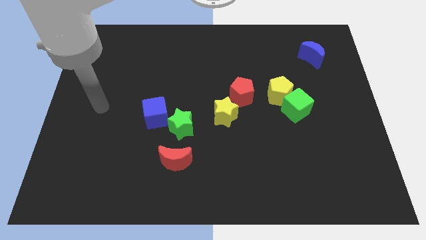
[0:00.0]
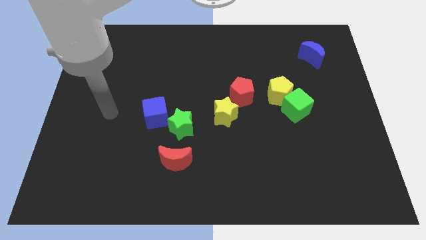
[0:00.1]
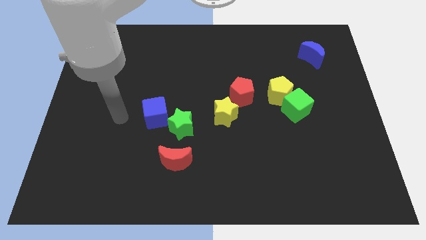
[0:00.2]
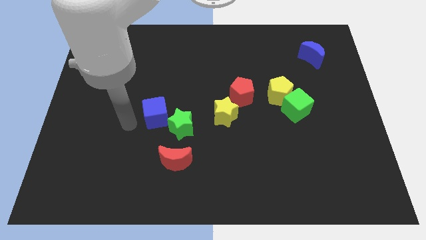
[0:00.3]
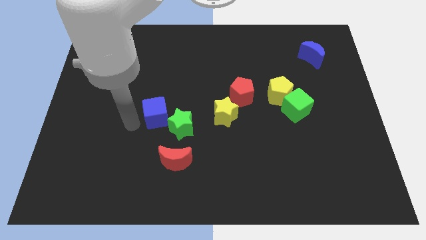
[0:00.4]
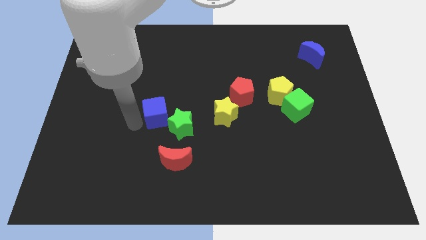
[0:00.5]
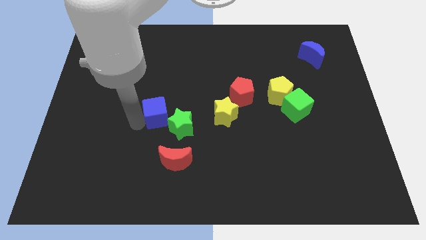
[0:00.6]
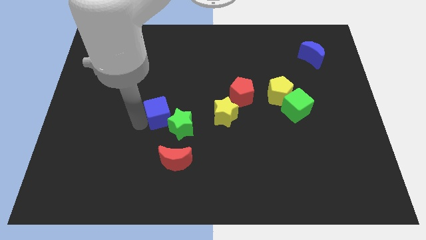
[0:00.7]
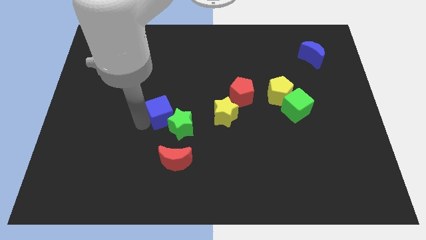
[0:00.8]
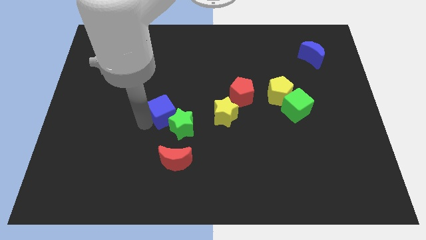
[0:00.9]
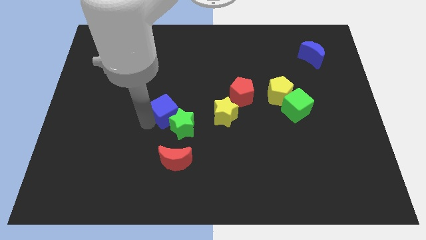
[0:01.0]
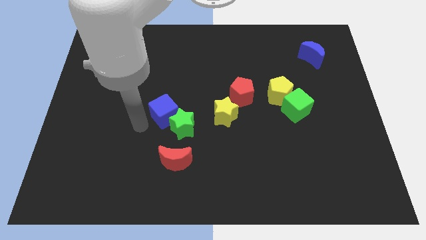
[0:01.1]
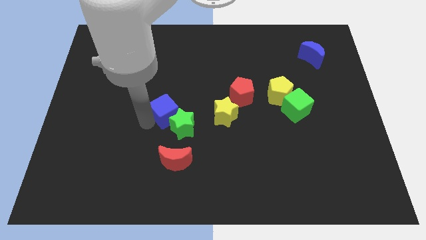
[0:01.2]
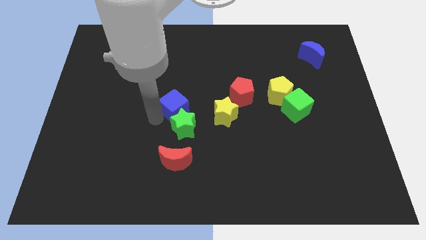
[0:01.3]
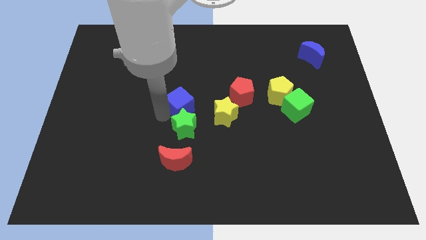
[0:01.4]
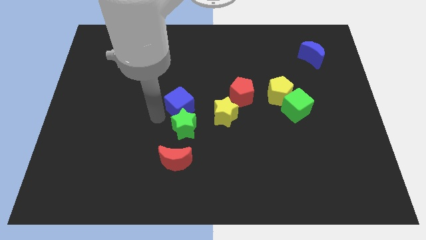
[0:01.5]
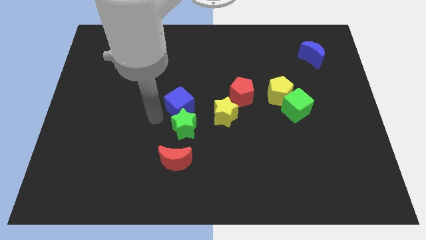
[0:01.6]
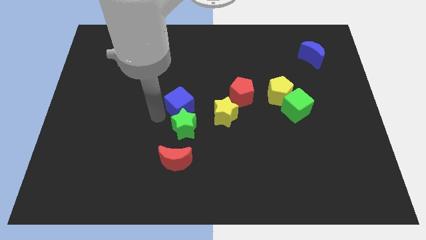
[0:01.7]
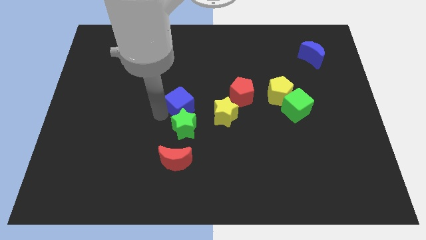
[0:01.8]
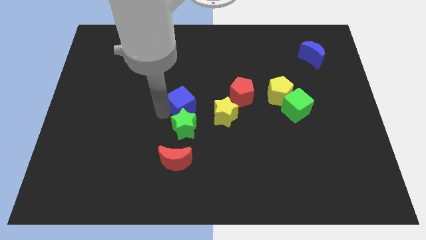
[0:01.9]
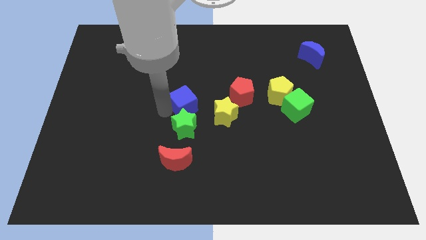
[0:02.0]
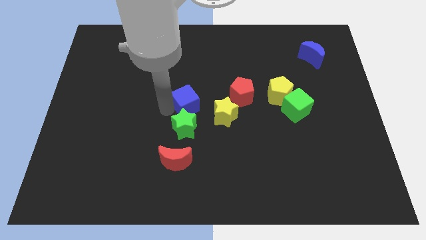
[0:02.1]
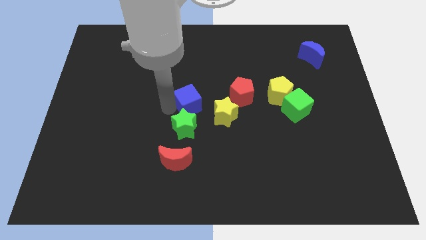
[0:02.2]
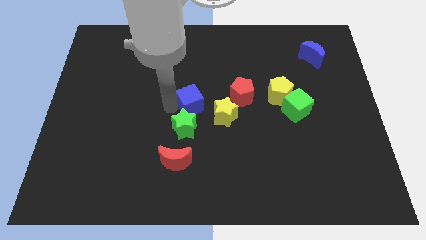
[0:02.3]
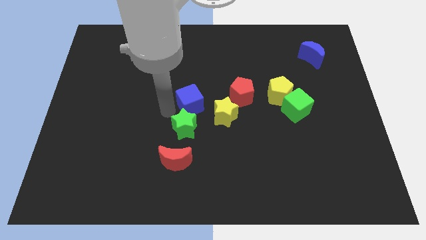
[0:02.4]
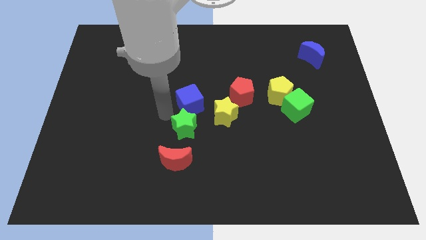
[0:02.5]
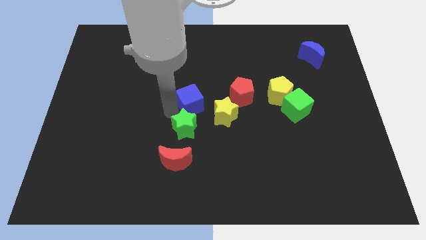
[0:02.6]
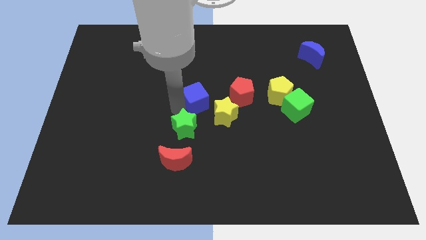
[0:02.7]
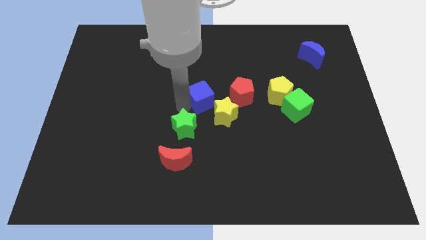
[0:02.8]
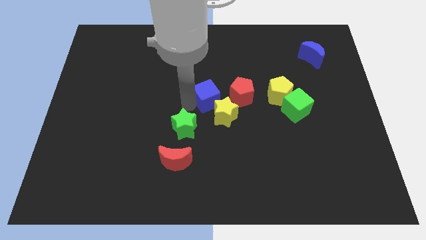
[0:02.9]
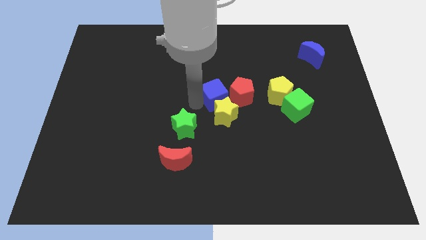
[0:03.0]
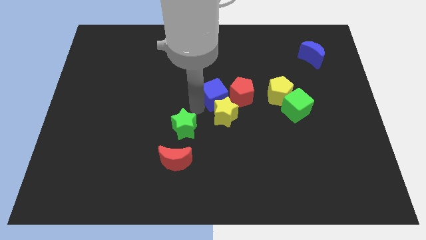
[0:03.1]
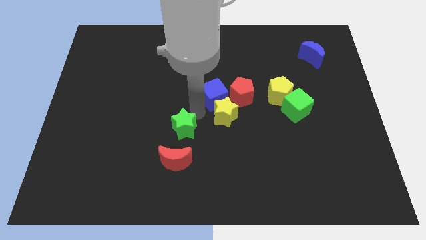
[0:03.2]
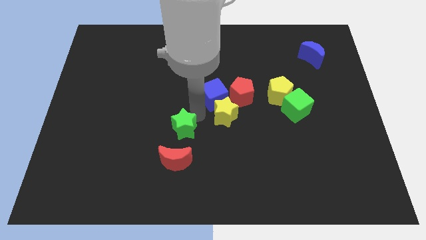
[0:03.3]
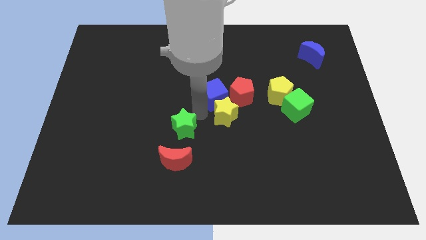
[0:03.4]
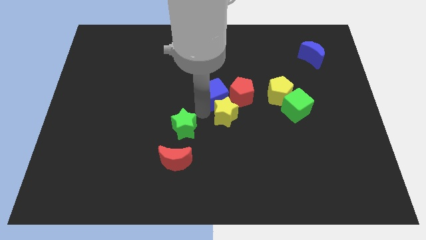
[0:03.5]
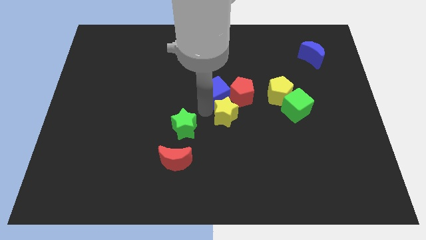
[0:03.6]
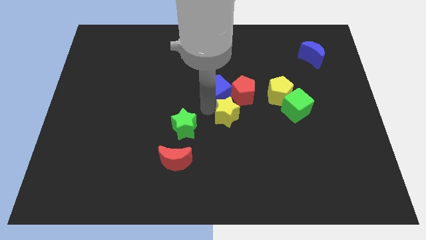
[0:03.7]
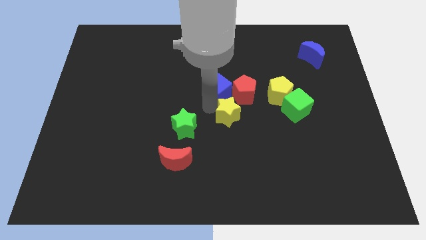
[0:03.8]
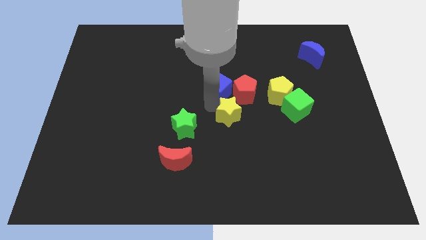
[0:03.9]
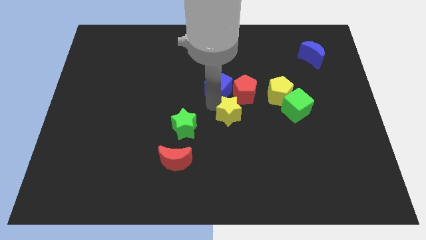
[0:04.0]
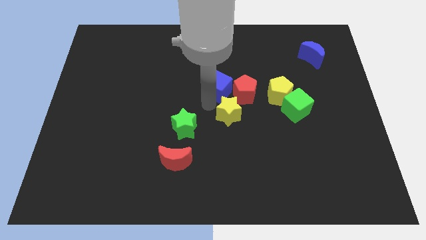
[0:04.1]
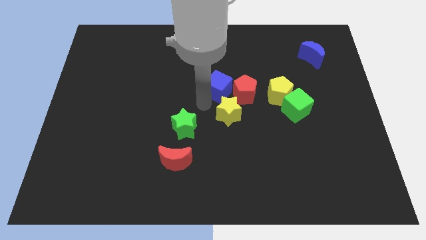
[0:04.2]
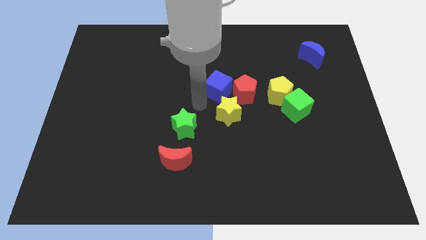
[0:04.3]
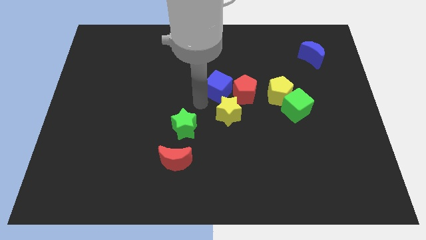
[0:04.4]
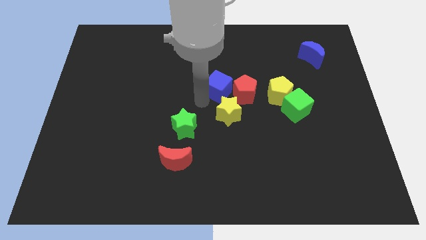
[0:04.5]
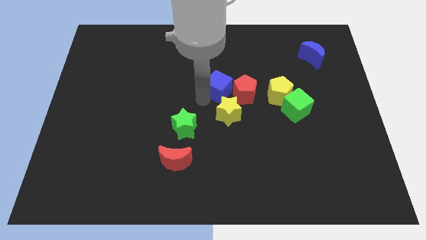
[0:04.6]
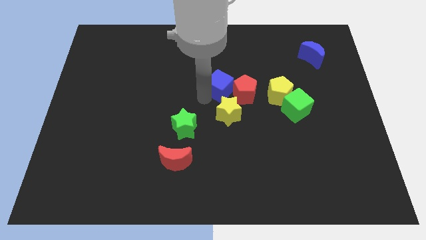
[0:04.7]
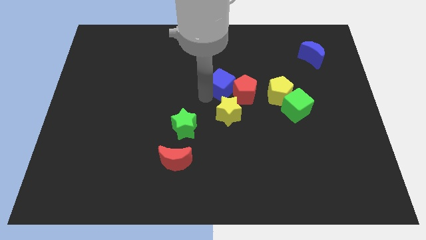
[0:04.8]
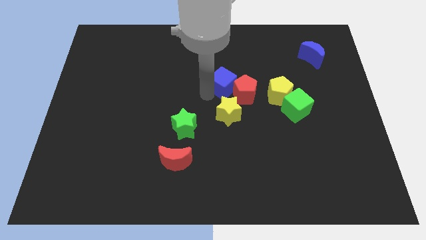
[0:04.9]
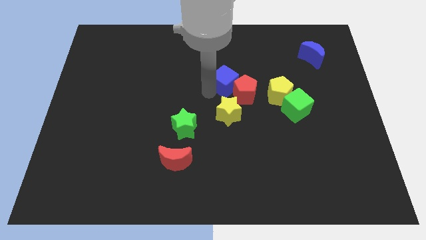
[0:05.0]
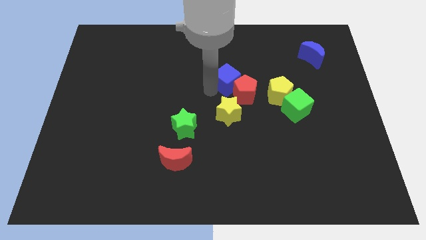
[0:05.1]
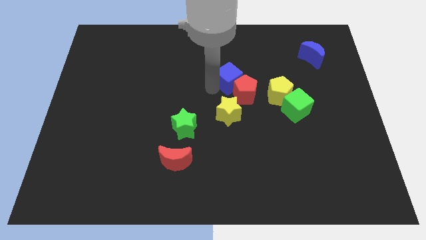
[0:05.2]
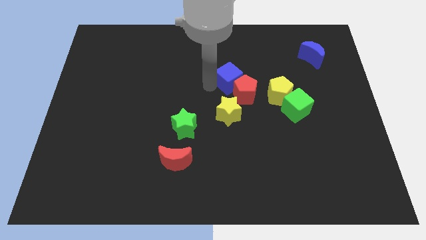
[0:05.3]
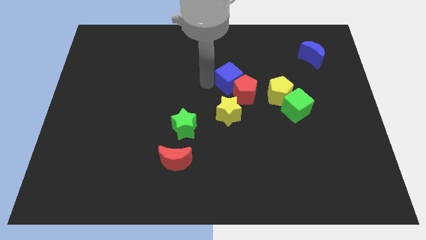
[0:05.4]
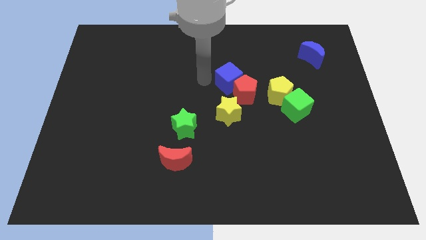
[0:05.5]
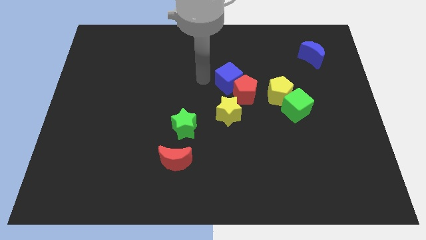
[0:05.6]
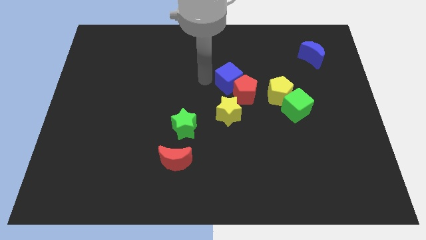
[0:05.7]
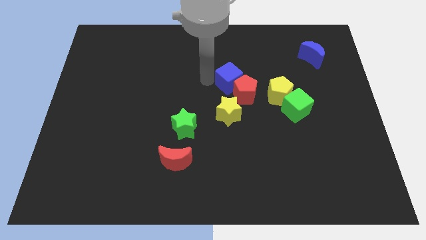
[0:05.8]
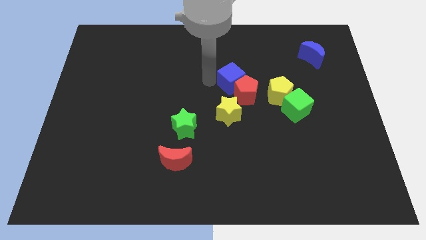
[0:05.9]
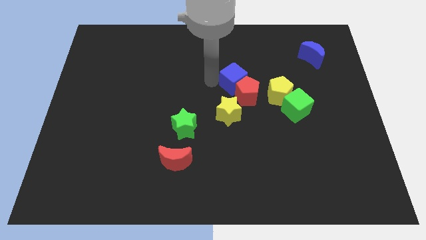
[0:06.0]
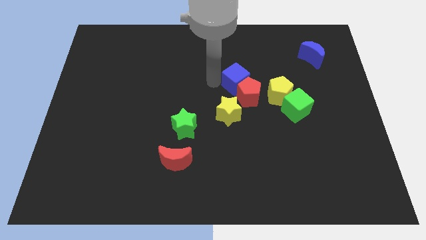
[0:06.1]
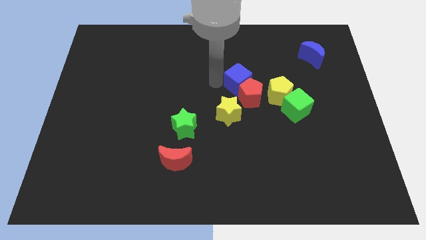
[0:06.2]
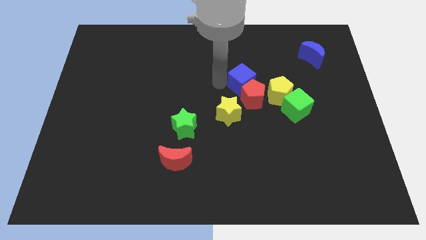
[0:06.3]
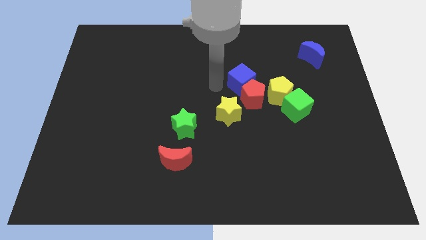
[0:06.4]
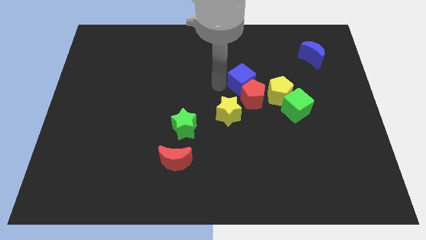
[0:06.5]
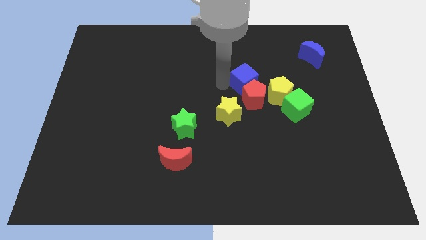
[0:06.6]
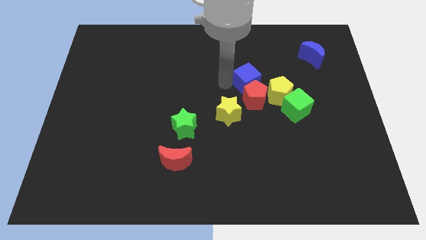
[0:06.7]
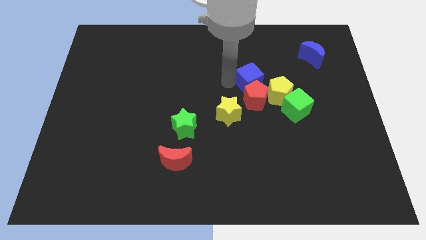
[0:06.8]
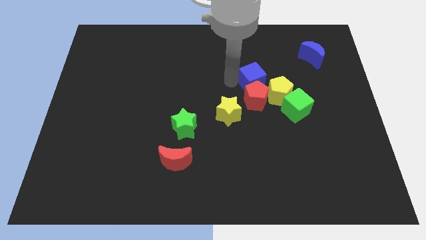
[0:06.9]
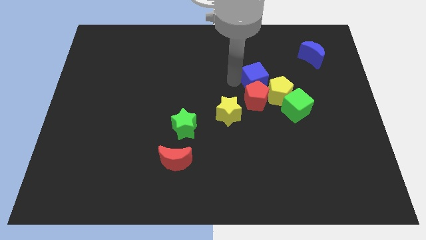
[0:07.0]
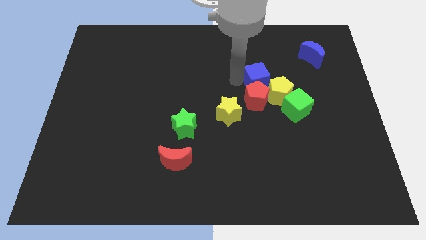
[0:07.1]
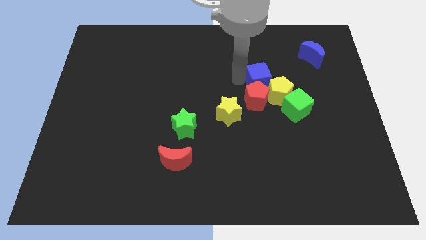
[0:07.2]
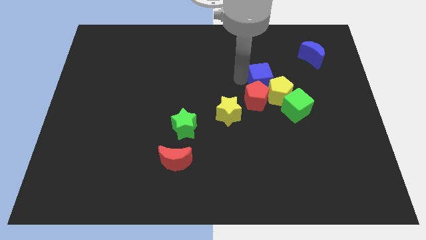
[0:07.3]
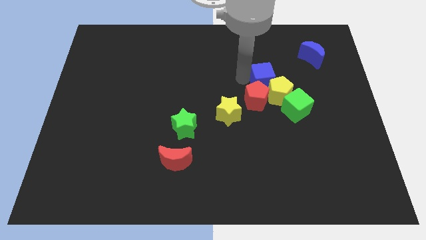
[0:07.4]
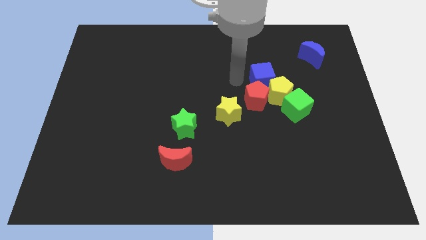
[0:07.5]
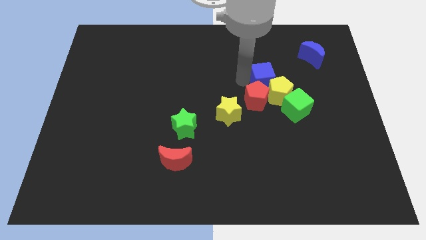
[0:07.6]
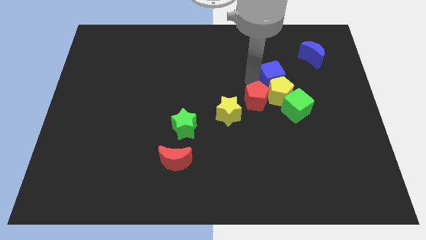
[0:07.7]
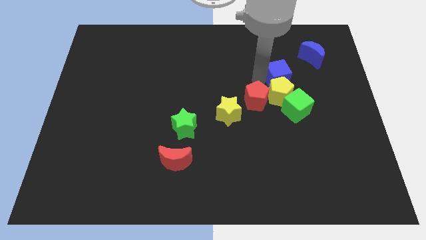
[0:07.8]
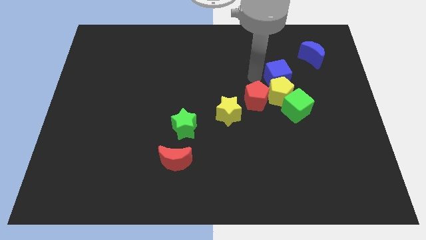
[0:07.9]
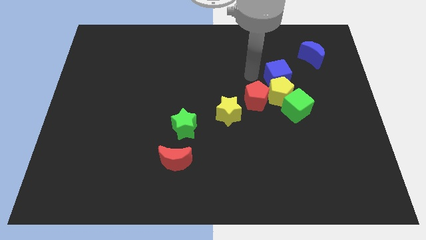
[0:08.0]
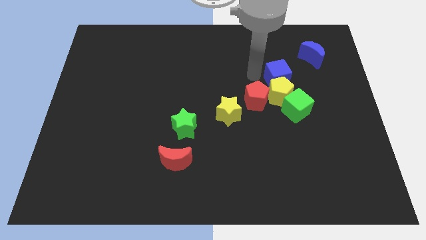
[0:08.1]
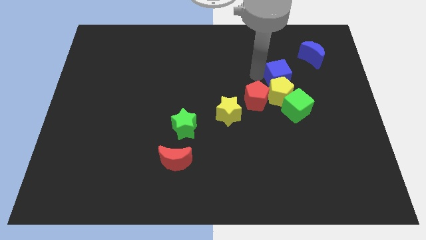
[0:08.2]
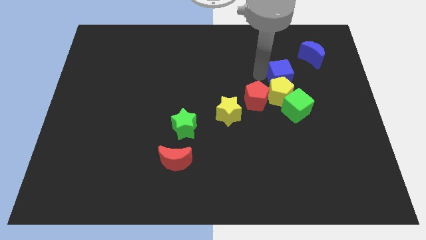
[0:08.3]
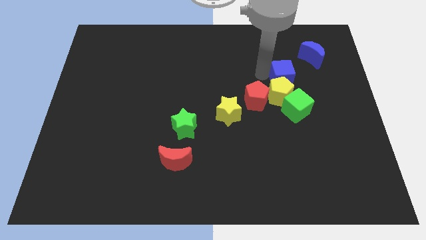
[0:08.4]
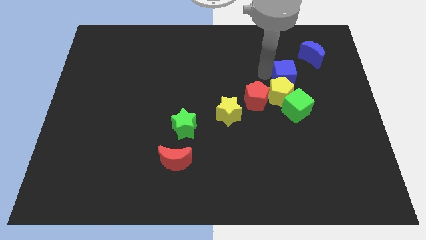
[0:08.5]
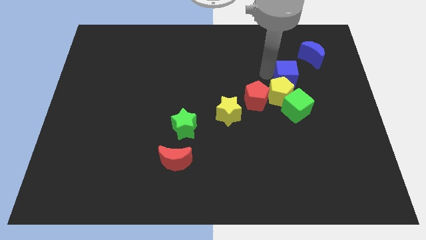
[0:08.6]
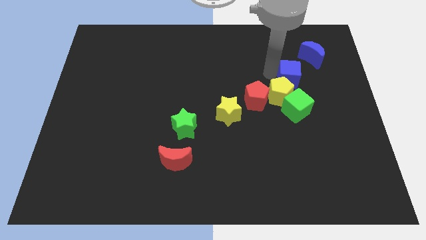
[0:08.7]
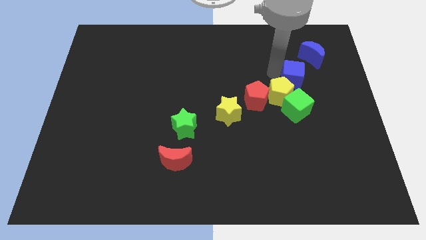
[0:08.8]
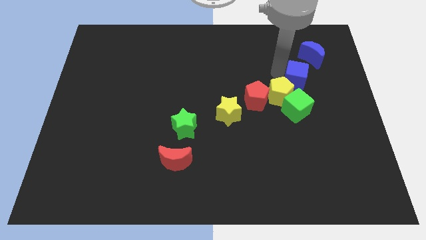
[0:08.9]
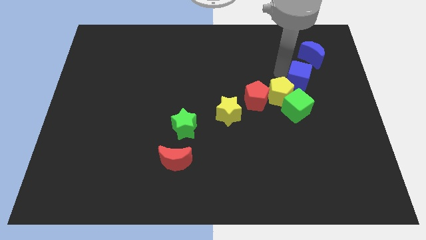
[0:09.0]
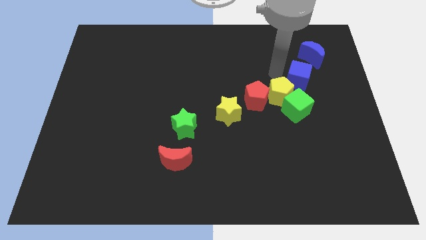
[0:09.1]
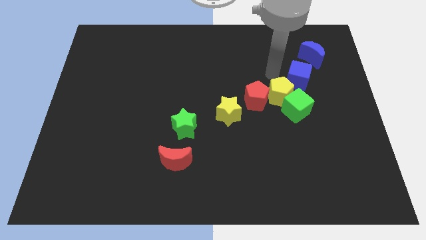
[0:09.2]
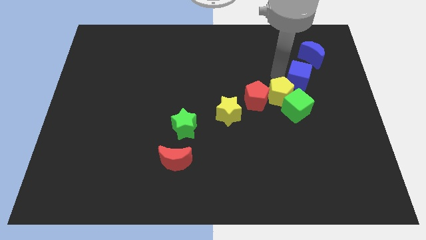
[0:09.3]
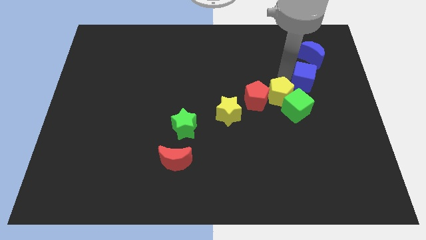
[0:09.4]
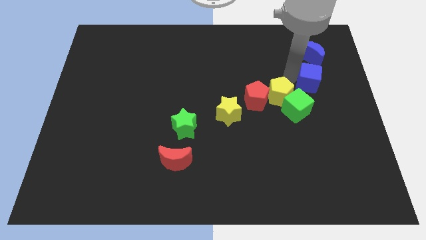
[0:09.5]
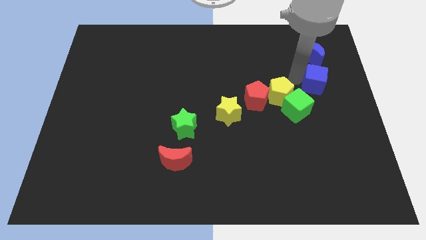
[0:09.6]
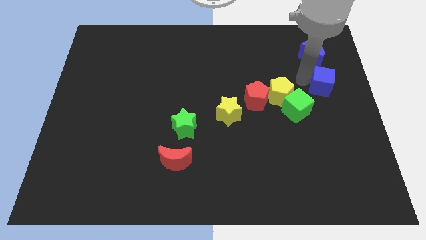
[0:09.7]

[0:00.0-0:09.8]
move the blue cube to the right side of the board
